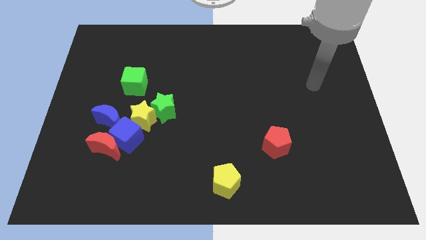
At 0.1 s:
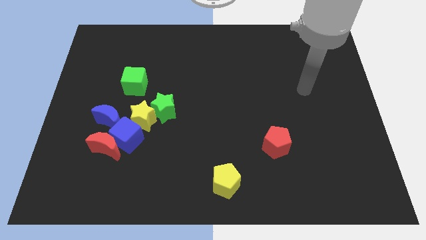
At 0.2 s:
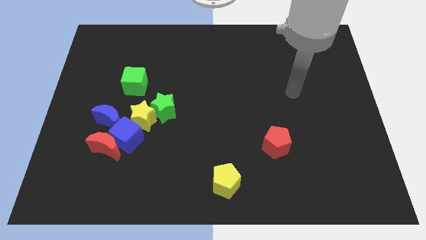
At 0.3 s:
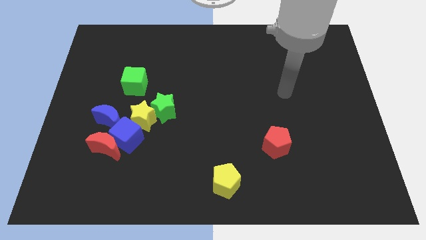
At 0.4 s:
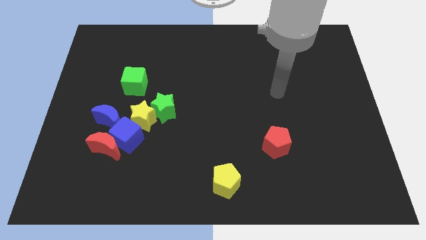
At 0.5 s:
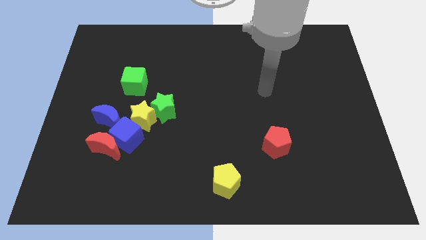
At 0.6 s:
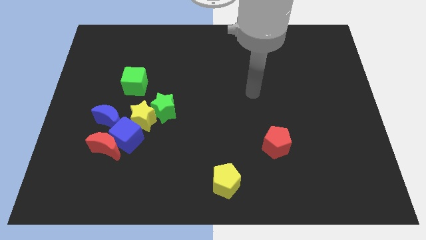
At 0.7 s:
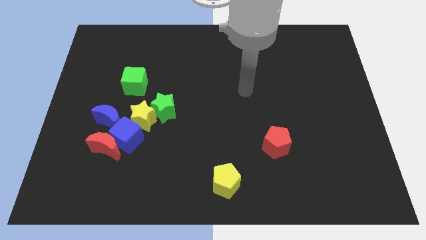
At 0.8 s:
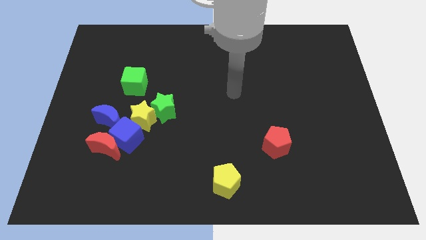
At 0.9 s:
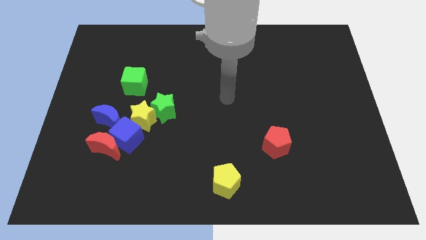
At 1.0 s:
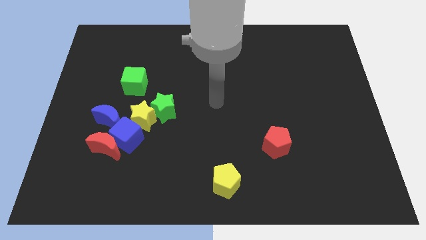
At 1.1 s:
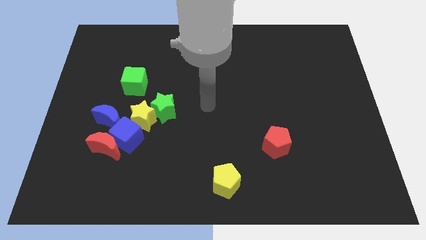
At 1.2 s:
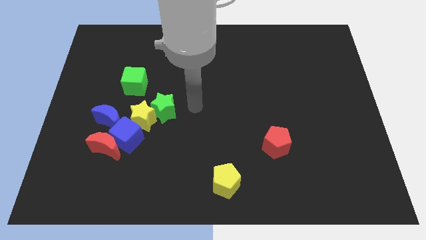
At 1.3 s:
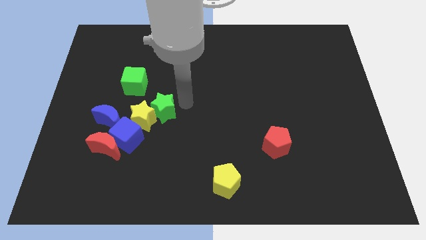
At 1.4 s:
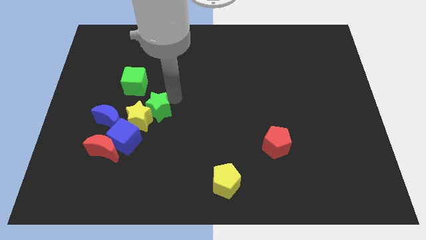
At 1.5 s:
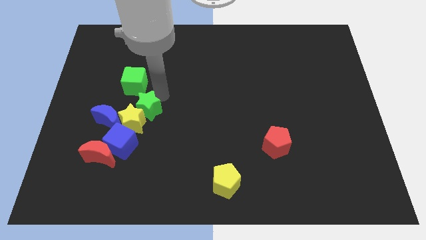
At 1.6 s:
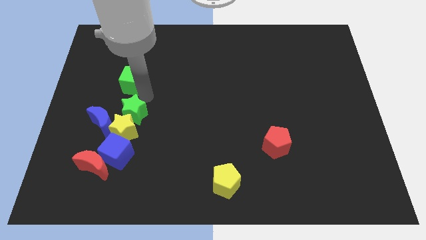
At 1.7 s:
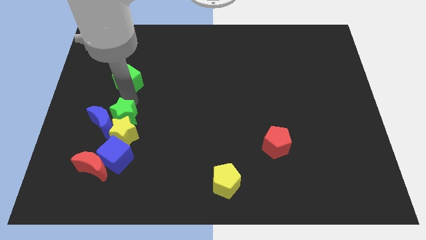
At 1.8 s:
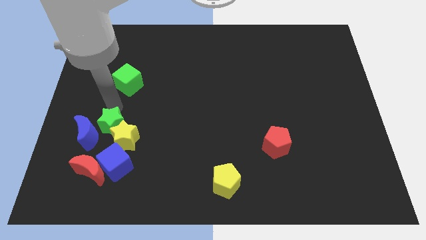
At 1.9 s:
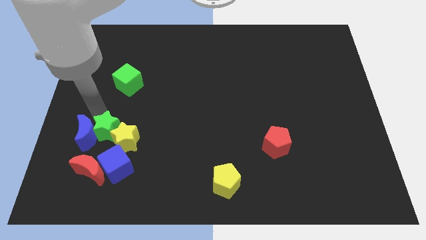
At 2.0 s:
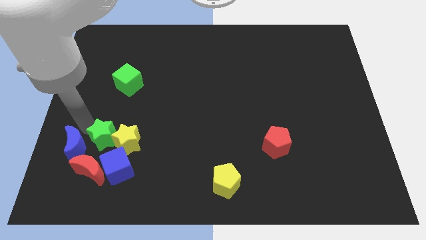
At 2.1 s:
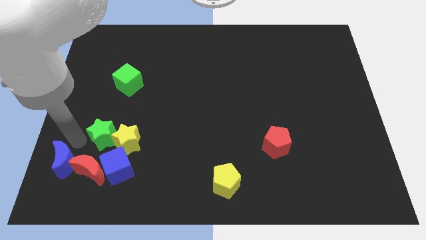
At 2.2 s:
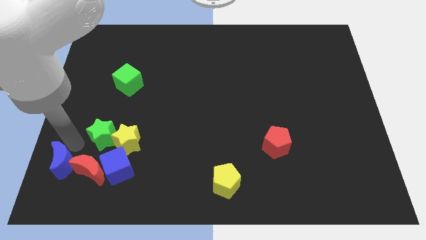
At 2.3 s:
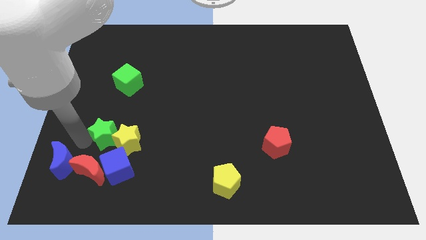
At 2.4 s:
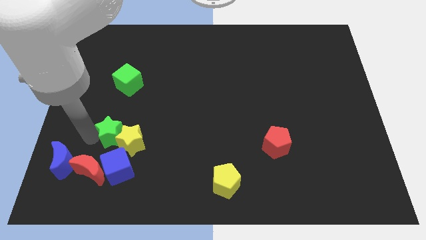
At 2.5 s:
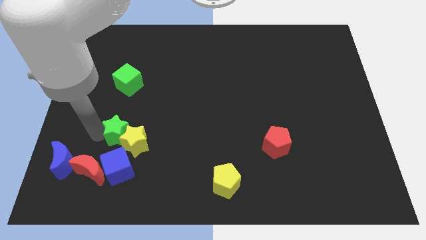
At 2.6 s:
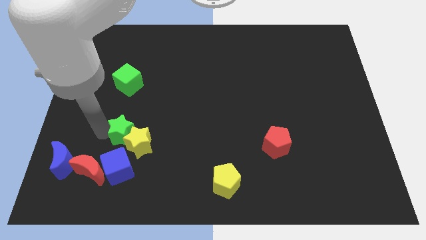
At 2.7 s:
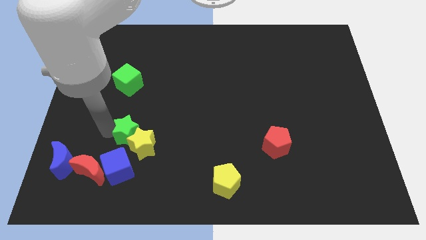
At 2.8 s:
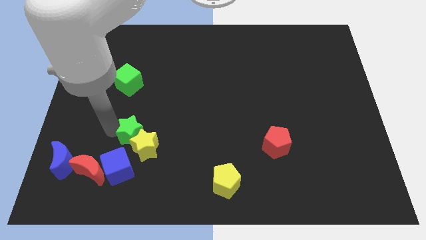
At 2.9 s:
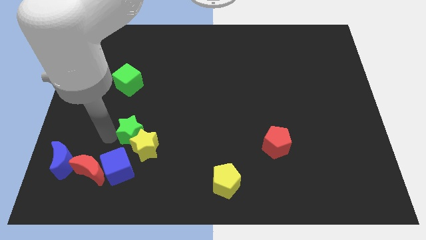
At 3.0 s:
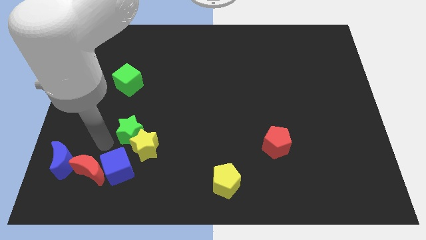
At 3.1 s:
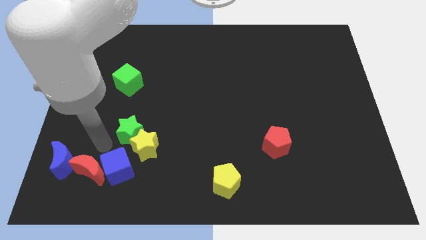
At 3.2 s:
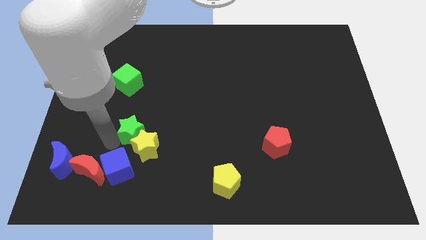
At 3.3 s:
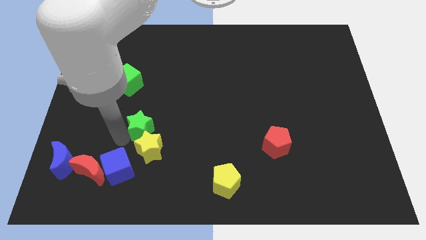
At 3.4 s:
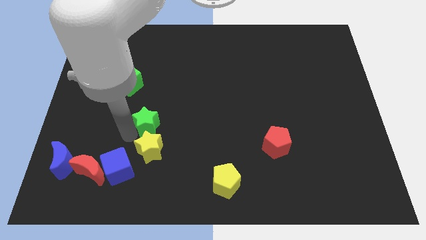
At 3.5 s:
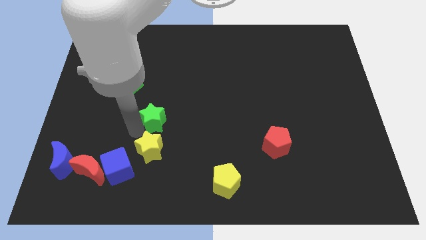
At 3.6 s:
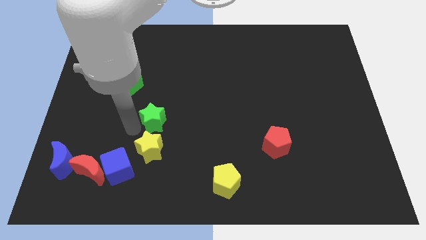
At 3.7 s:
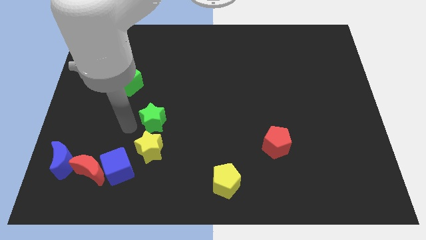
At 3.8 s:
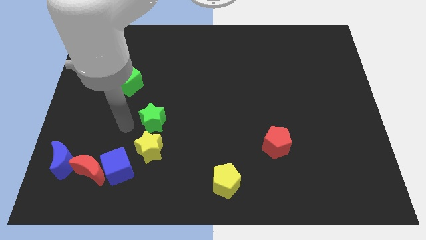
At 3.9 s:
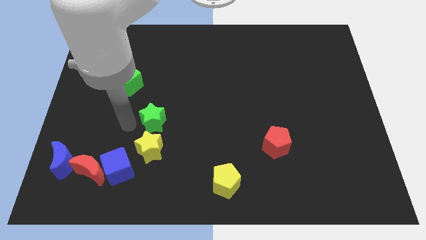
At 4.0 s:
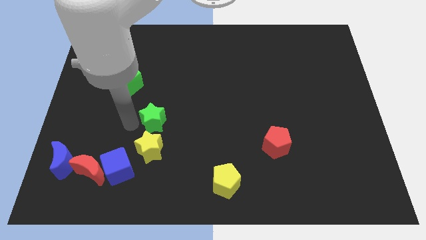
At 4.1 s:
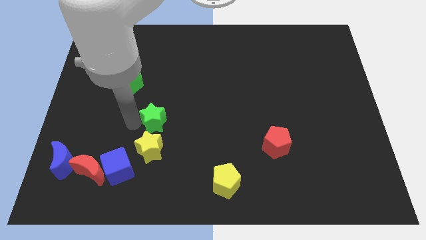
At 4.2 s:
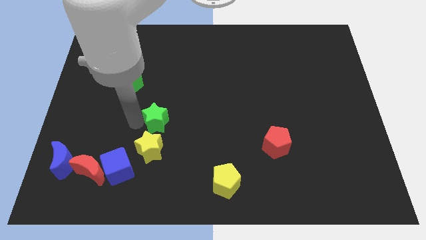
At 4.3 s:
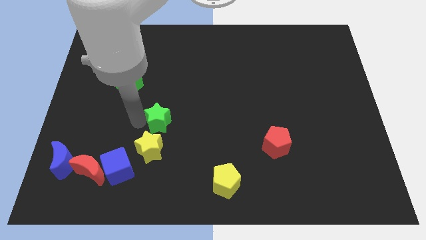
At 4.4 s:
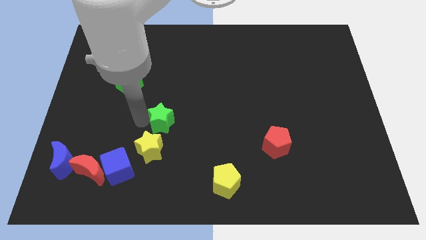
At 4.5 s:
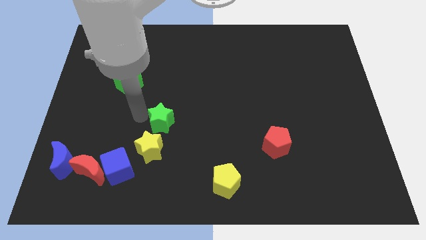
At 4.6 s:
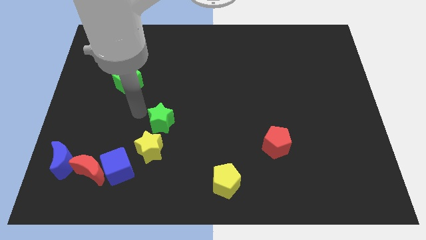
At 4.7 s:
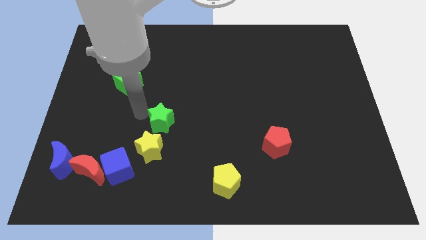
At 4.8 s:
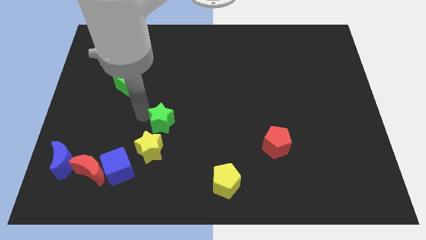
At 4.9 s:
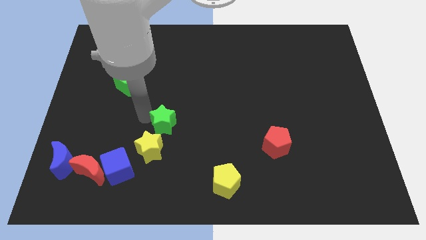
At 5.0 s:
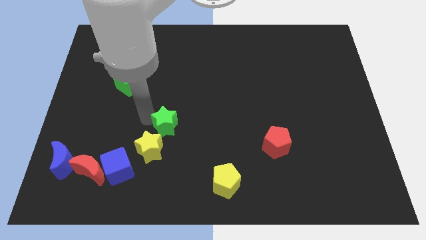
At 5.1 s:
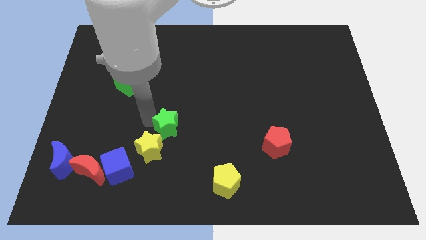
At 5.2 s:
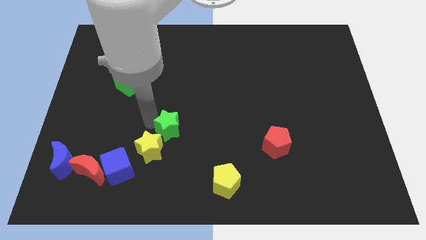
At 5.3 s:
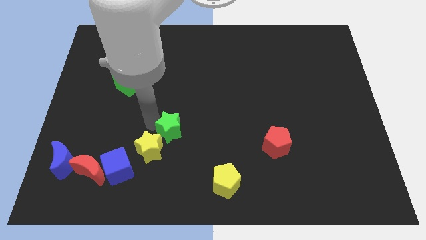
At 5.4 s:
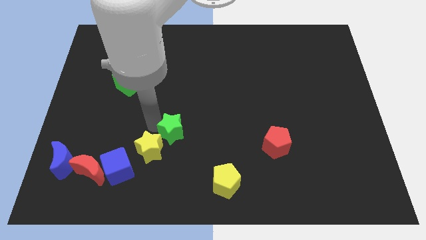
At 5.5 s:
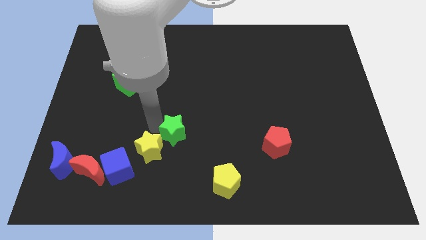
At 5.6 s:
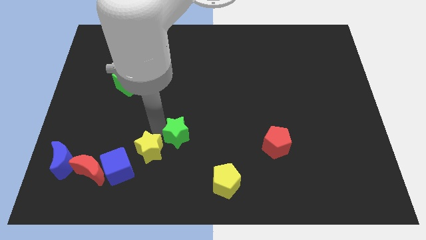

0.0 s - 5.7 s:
slightly slide the green star down and then to the right

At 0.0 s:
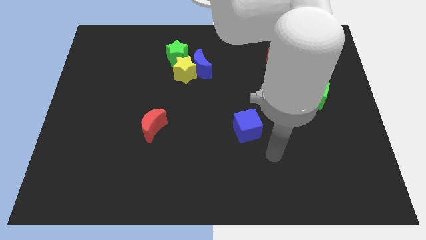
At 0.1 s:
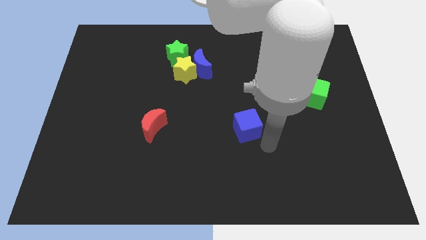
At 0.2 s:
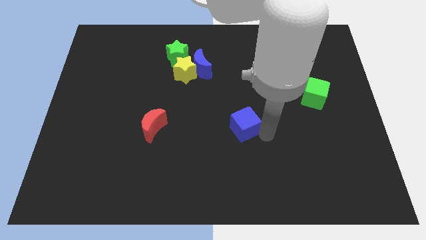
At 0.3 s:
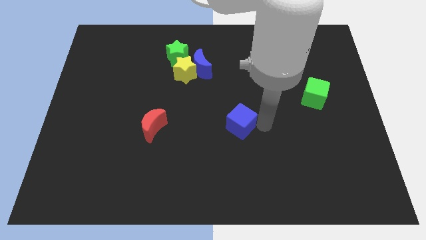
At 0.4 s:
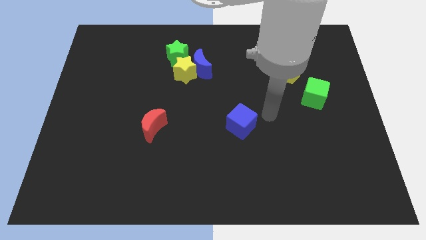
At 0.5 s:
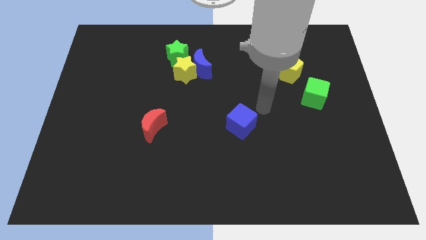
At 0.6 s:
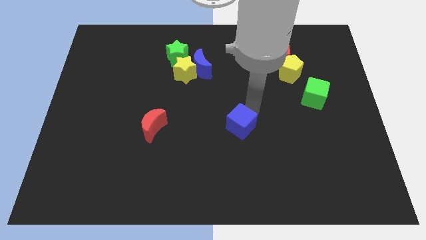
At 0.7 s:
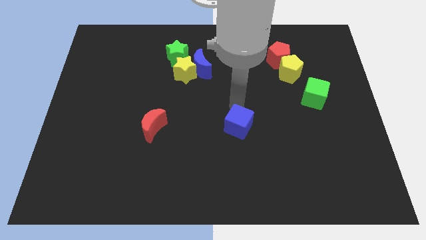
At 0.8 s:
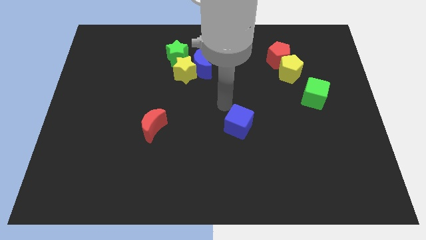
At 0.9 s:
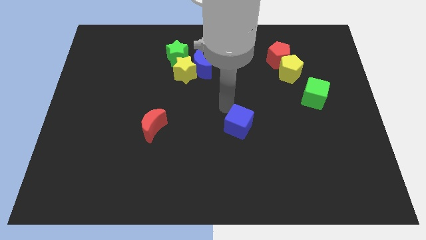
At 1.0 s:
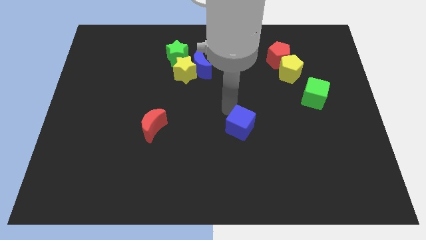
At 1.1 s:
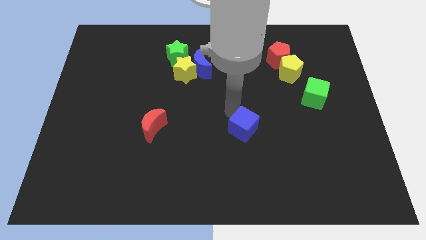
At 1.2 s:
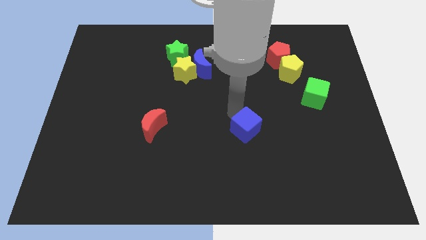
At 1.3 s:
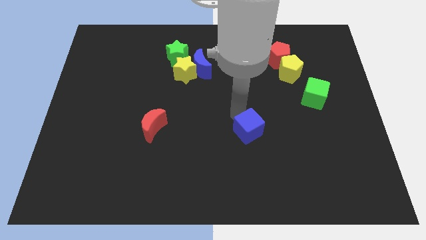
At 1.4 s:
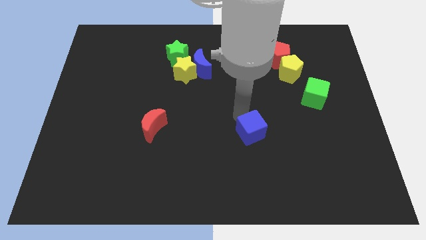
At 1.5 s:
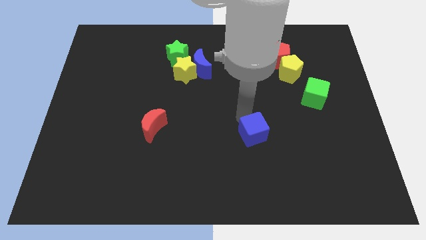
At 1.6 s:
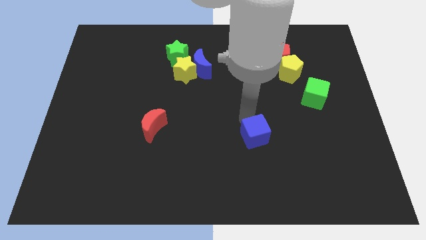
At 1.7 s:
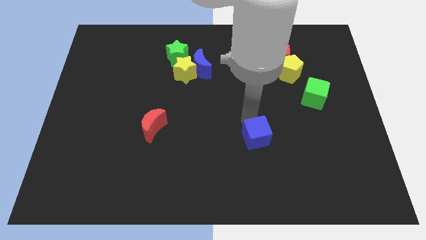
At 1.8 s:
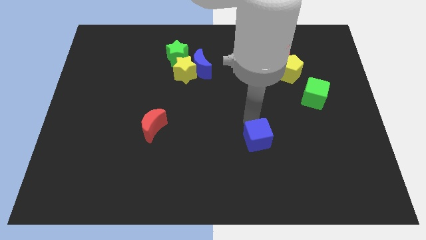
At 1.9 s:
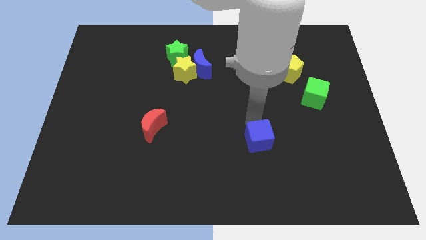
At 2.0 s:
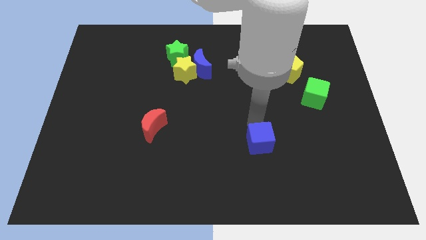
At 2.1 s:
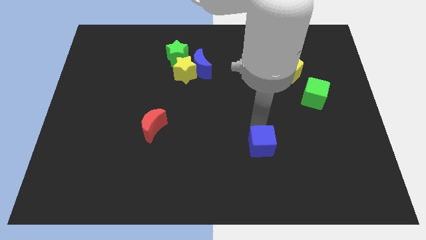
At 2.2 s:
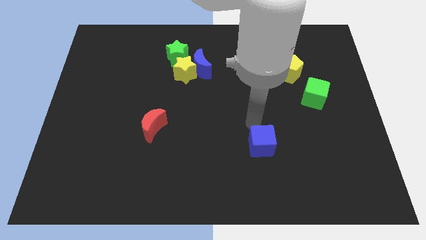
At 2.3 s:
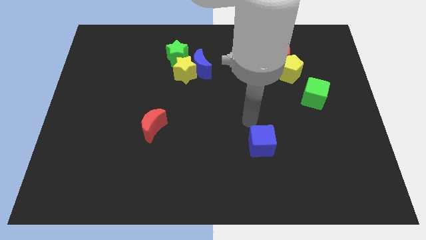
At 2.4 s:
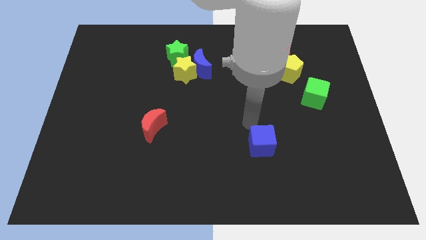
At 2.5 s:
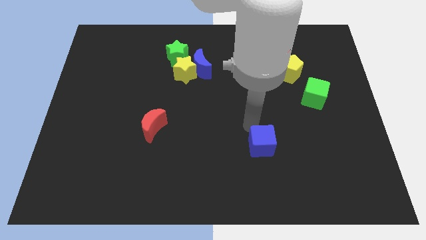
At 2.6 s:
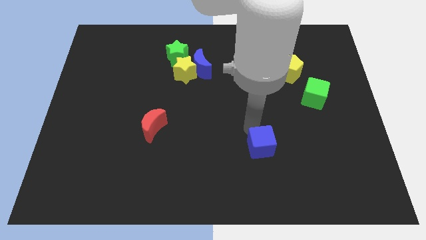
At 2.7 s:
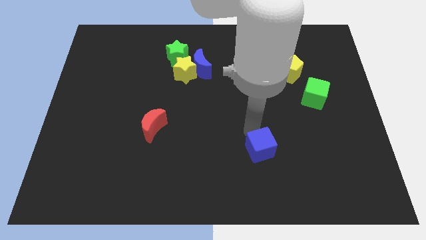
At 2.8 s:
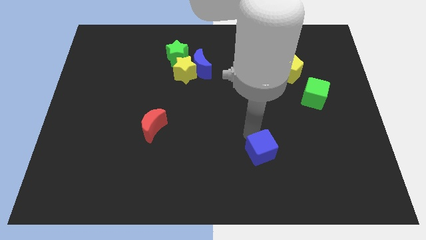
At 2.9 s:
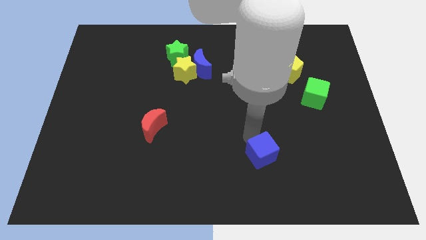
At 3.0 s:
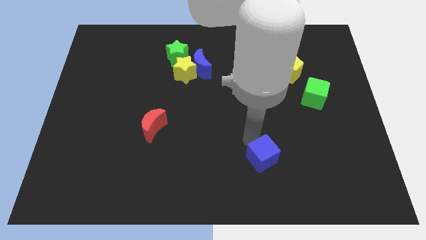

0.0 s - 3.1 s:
push the blue cube downwards and to the right diagonally a little
